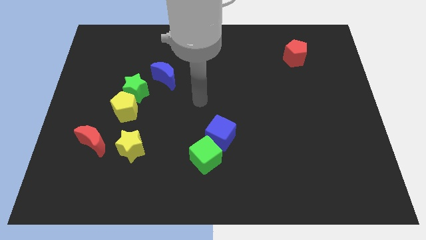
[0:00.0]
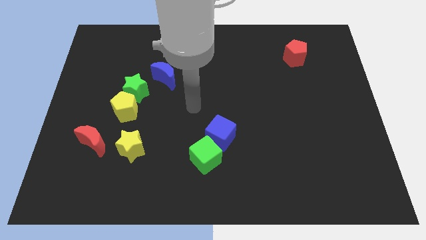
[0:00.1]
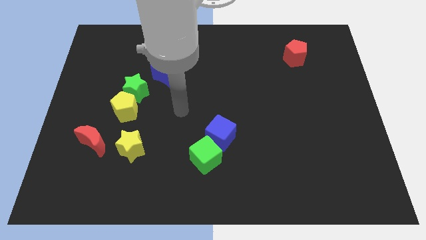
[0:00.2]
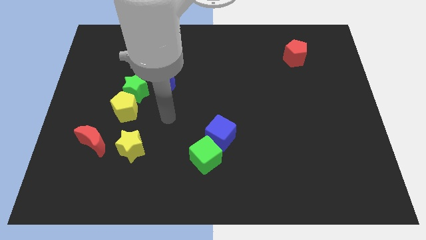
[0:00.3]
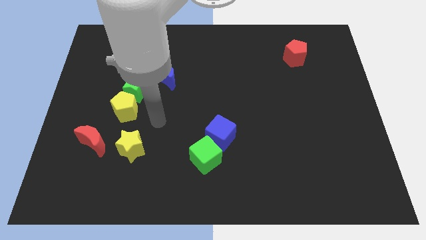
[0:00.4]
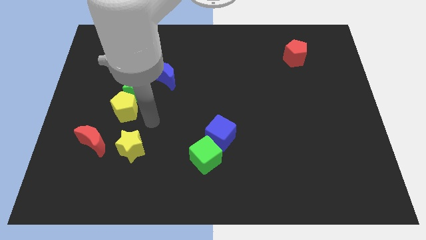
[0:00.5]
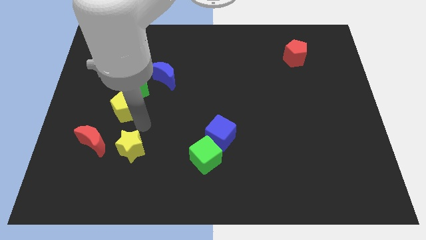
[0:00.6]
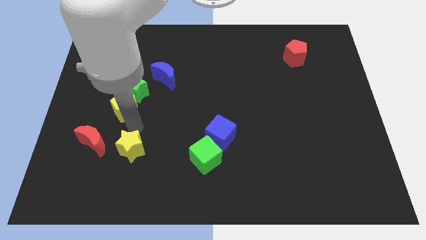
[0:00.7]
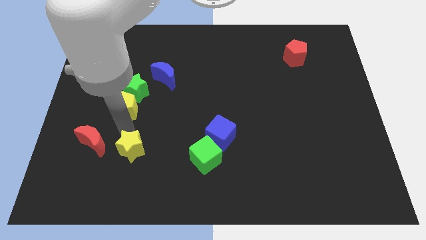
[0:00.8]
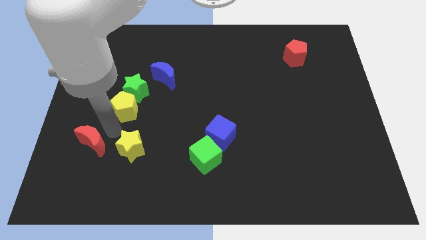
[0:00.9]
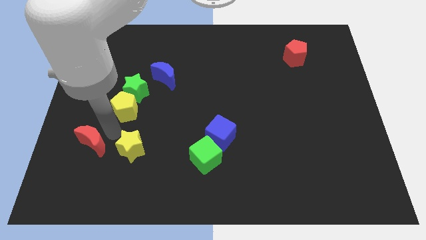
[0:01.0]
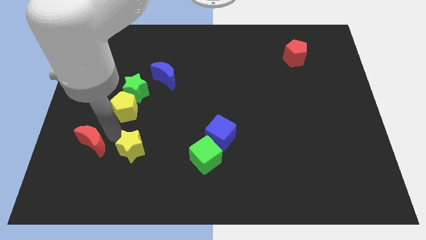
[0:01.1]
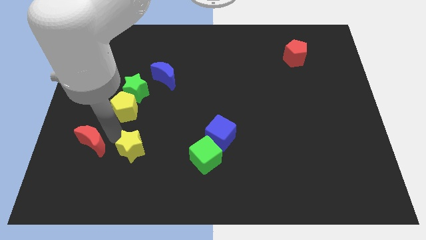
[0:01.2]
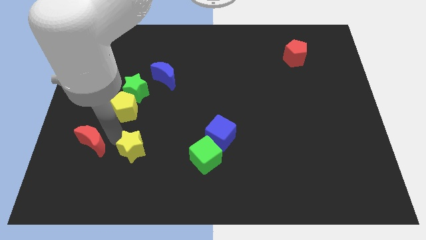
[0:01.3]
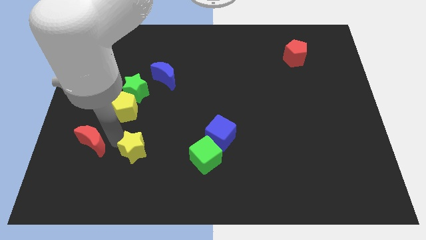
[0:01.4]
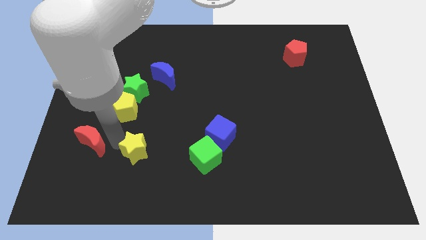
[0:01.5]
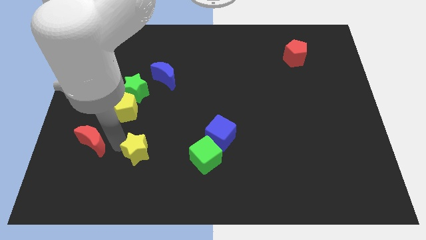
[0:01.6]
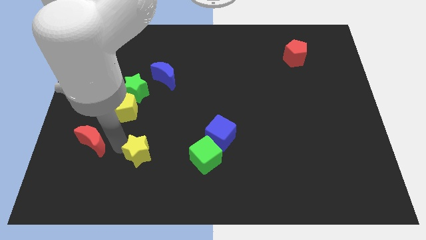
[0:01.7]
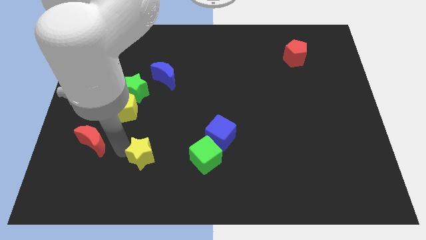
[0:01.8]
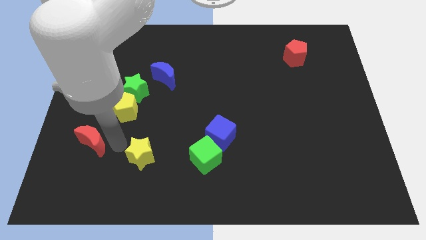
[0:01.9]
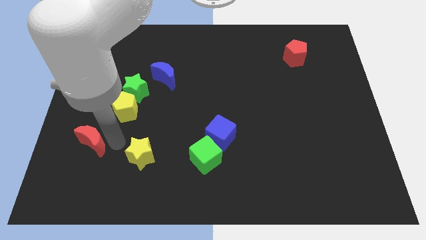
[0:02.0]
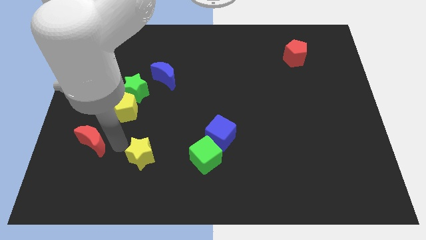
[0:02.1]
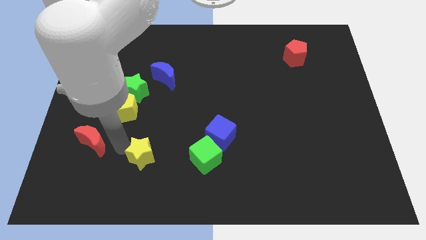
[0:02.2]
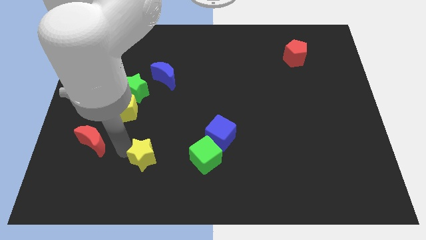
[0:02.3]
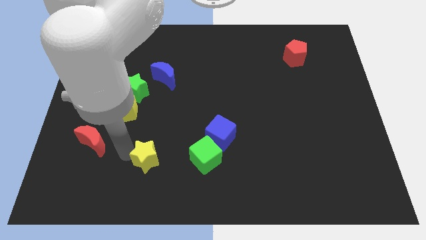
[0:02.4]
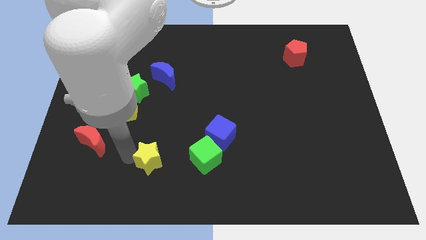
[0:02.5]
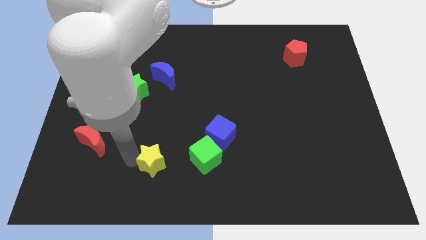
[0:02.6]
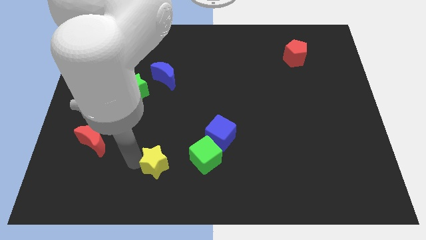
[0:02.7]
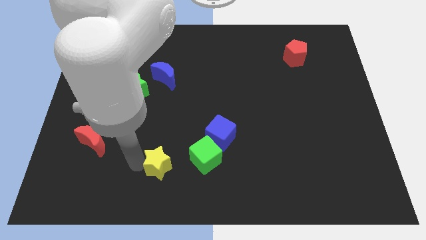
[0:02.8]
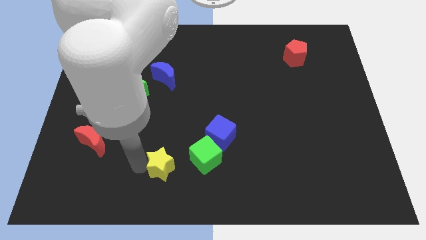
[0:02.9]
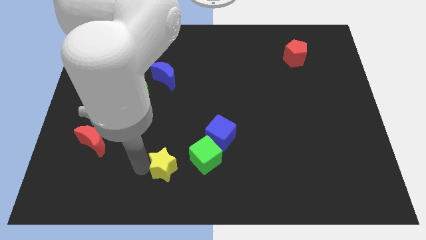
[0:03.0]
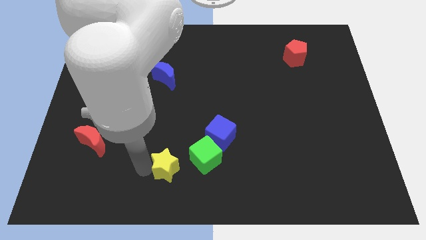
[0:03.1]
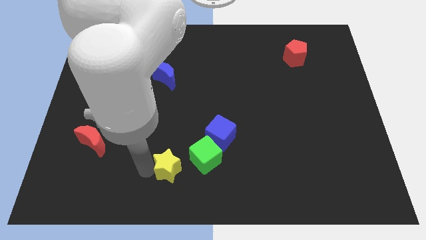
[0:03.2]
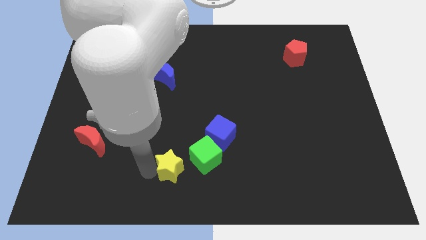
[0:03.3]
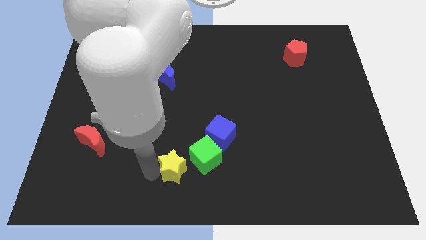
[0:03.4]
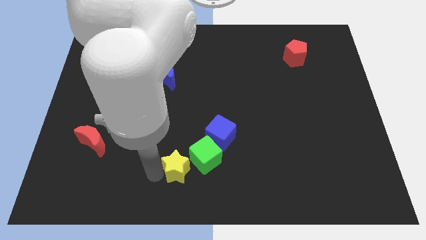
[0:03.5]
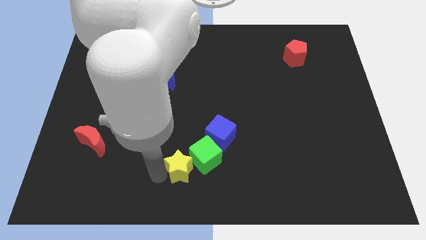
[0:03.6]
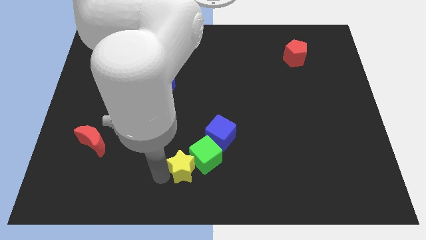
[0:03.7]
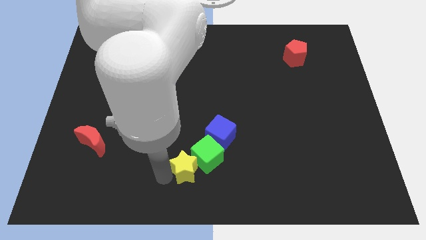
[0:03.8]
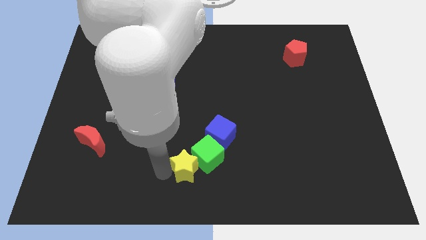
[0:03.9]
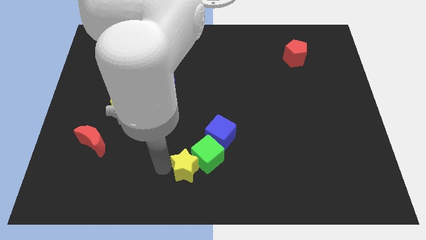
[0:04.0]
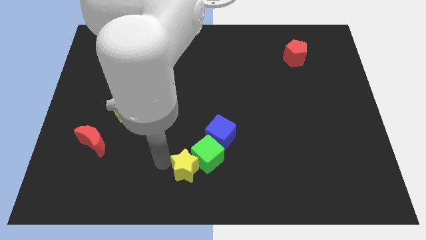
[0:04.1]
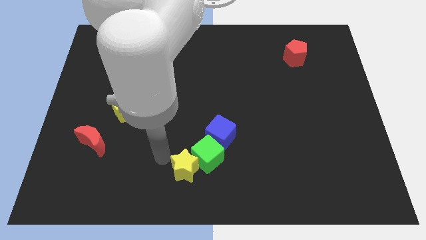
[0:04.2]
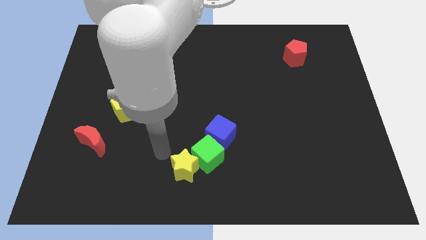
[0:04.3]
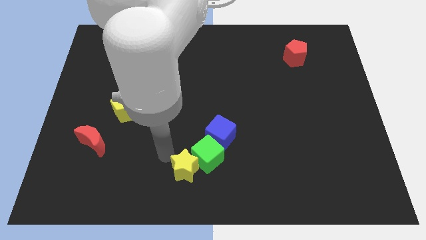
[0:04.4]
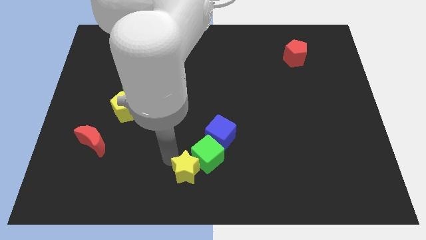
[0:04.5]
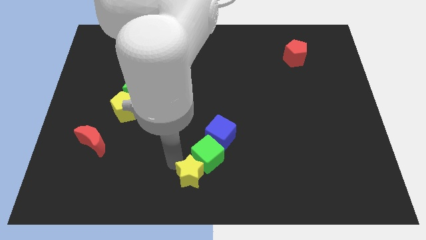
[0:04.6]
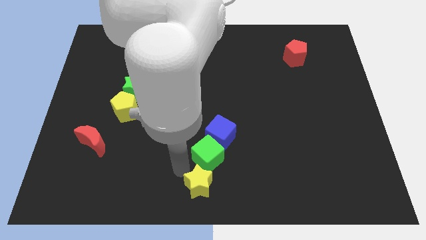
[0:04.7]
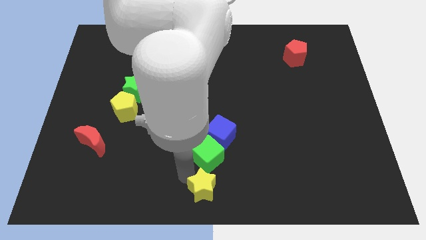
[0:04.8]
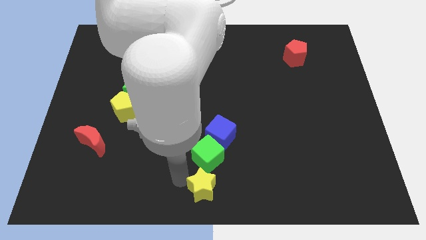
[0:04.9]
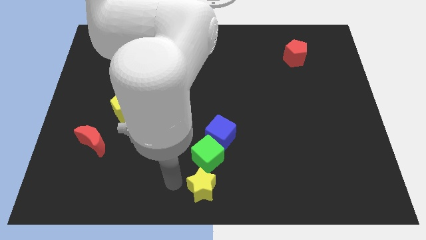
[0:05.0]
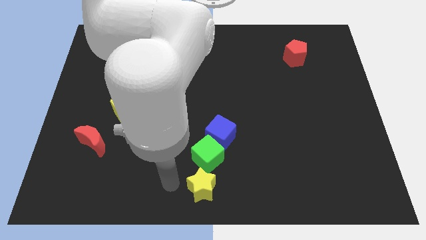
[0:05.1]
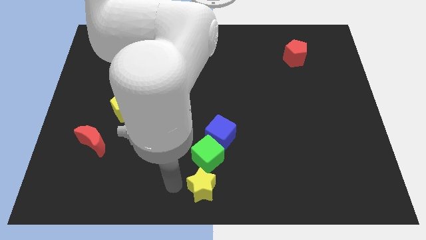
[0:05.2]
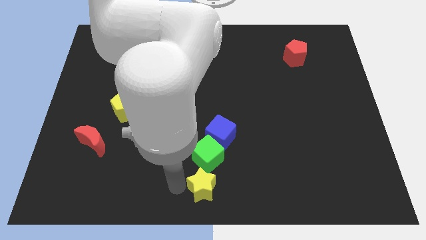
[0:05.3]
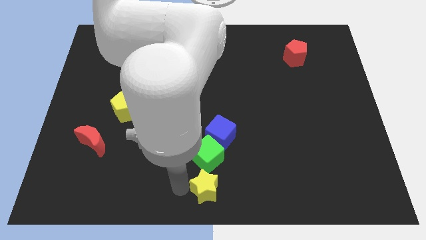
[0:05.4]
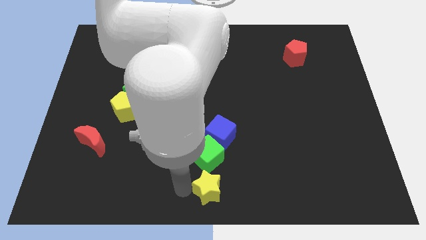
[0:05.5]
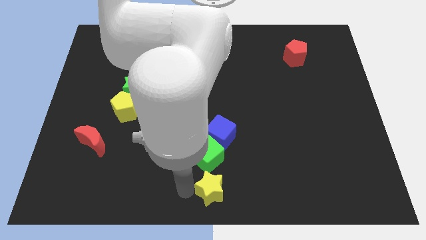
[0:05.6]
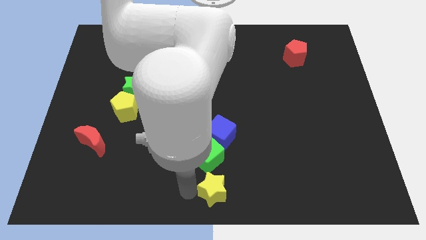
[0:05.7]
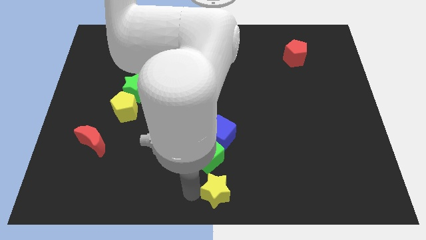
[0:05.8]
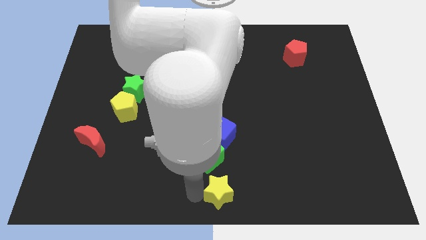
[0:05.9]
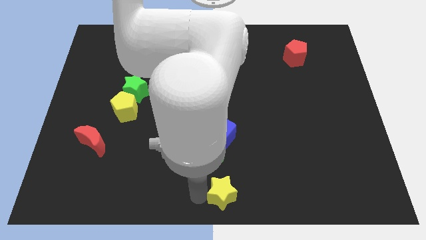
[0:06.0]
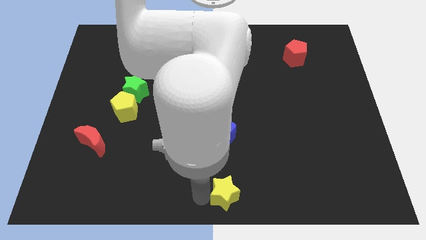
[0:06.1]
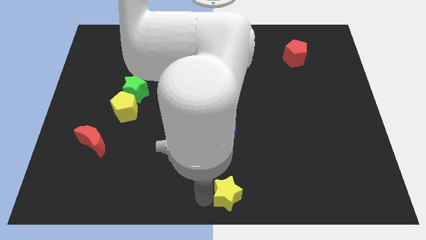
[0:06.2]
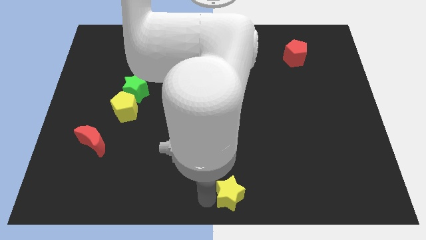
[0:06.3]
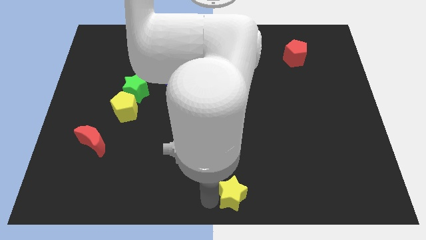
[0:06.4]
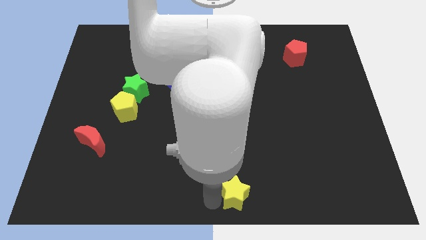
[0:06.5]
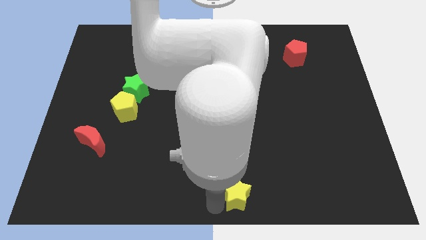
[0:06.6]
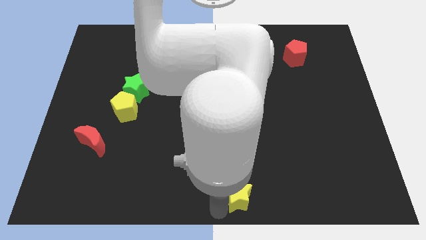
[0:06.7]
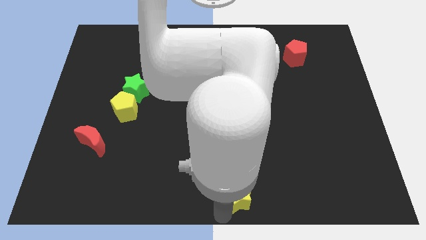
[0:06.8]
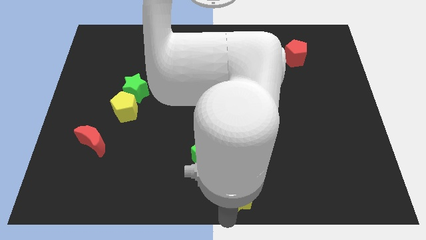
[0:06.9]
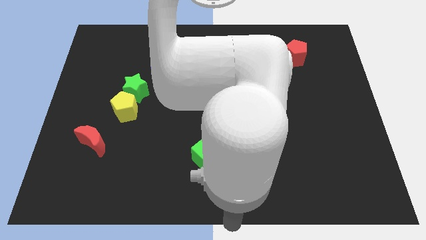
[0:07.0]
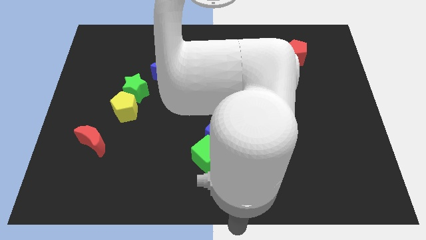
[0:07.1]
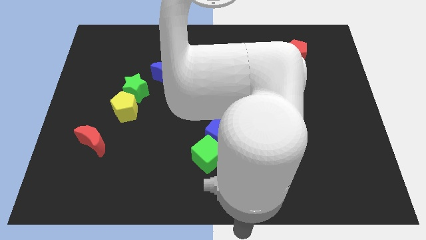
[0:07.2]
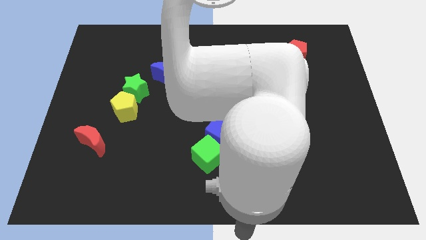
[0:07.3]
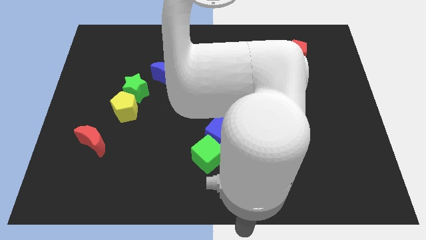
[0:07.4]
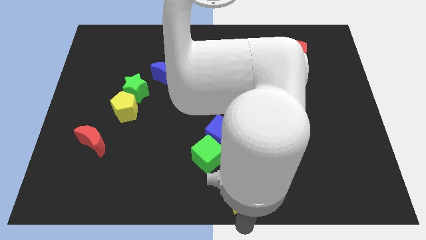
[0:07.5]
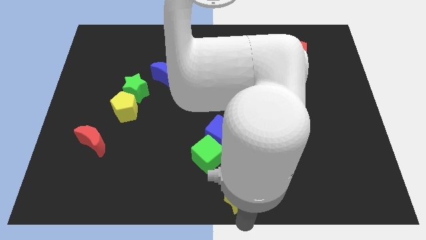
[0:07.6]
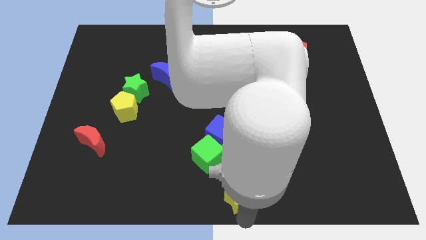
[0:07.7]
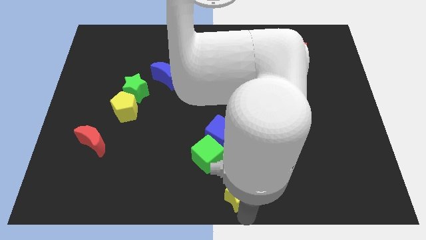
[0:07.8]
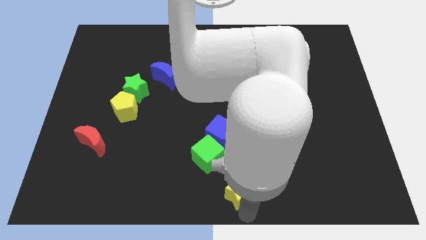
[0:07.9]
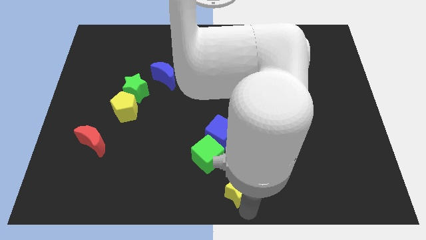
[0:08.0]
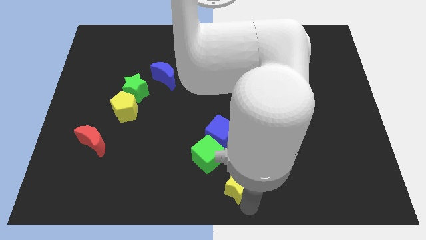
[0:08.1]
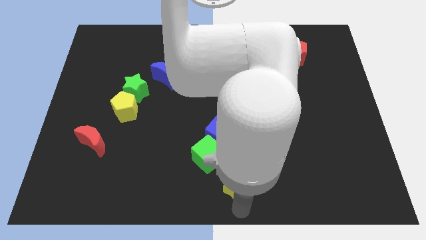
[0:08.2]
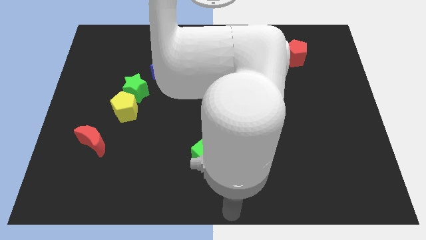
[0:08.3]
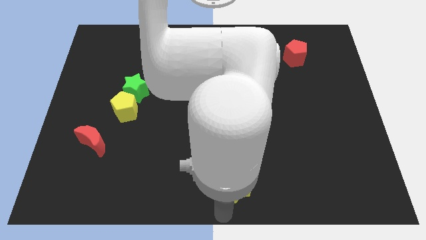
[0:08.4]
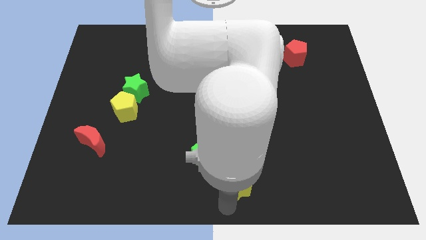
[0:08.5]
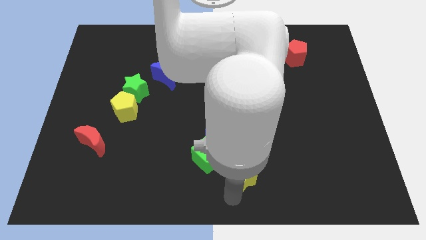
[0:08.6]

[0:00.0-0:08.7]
put the yellow star just right of the green cube
